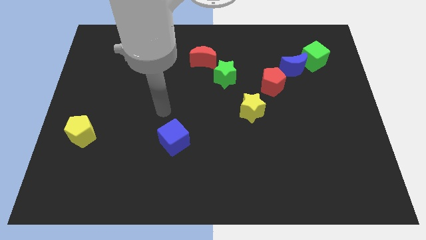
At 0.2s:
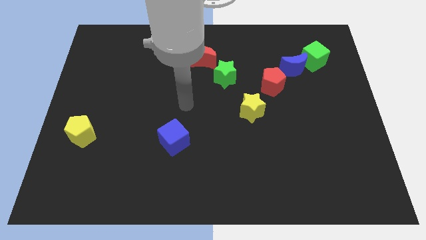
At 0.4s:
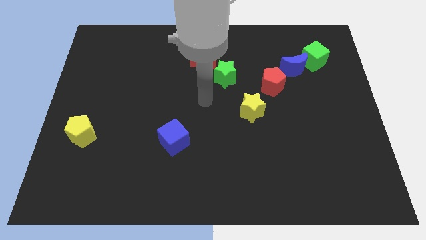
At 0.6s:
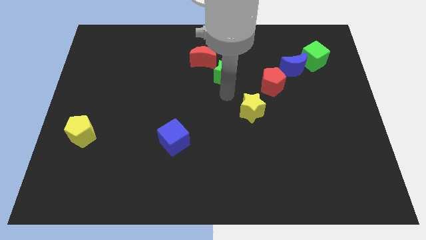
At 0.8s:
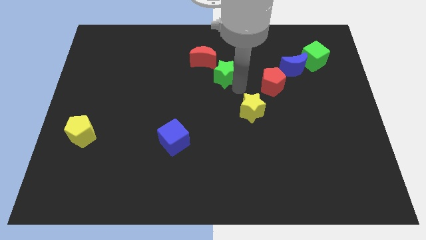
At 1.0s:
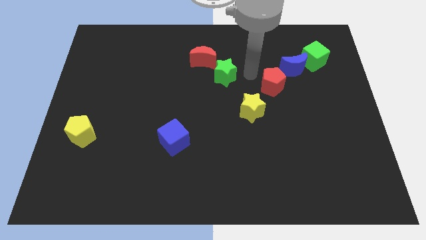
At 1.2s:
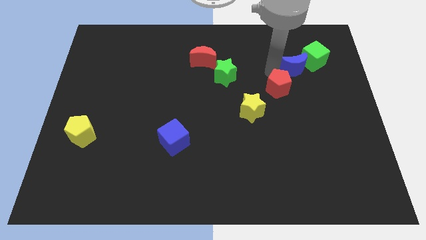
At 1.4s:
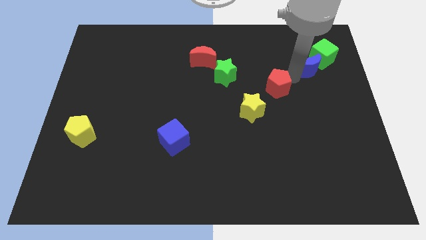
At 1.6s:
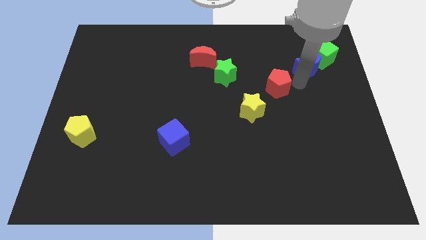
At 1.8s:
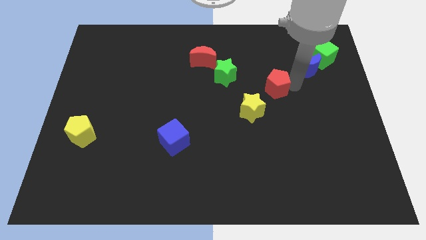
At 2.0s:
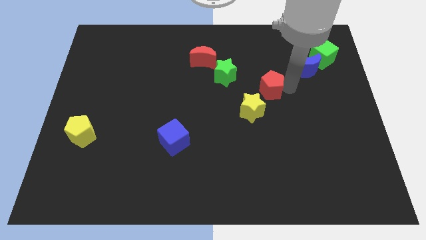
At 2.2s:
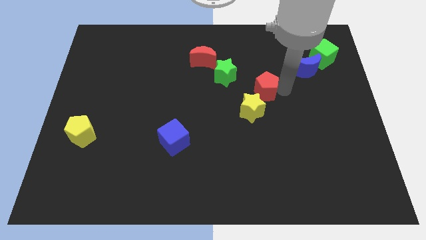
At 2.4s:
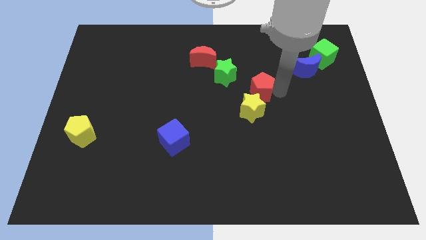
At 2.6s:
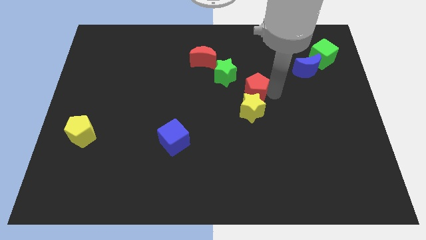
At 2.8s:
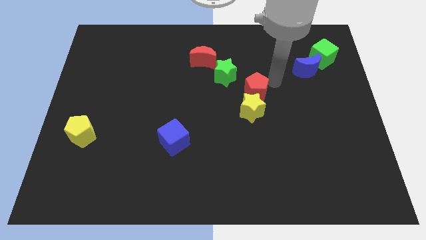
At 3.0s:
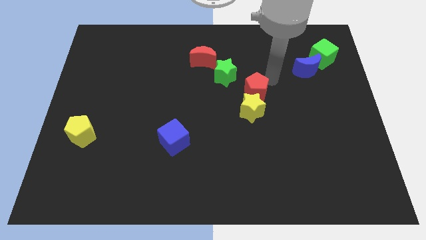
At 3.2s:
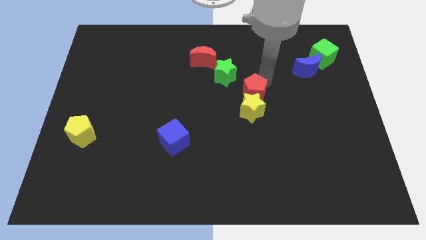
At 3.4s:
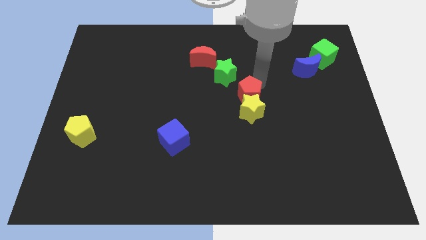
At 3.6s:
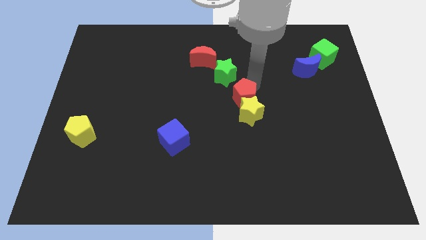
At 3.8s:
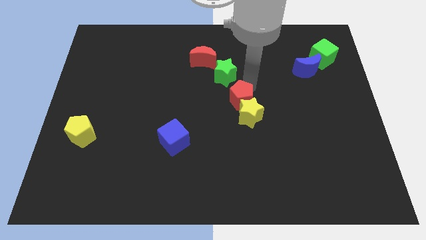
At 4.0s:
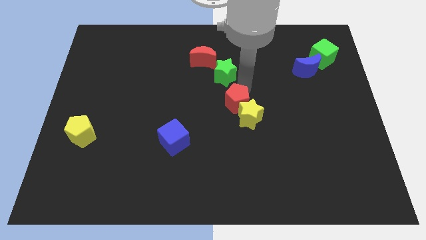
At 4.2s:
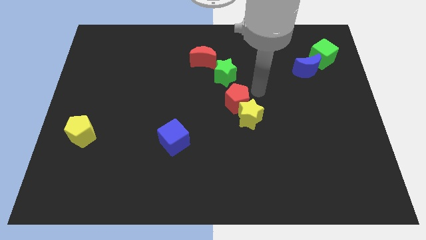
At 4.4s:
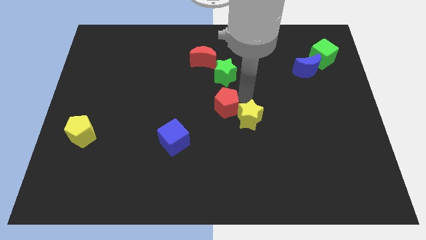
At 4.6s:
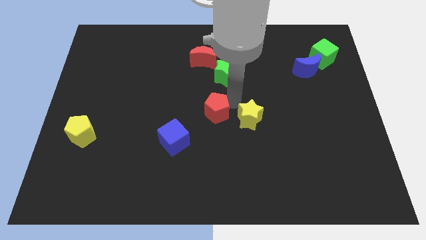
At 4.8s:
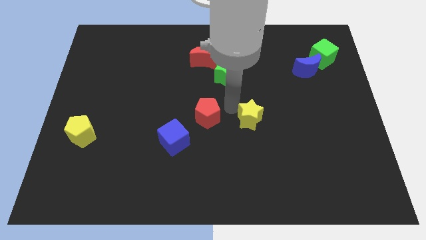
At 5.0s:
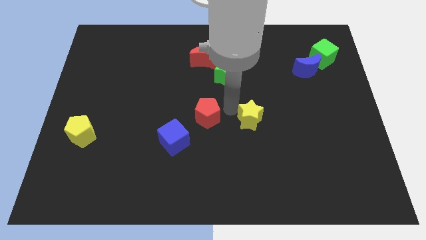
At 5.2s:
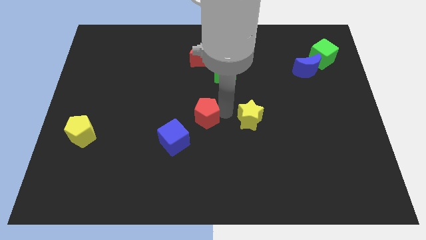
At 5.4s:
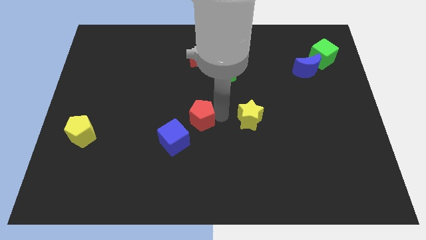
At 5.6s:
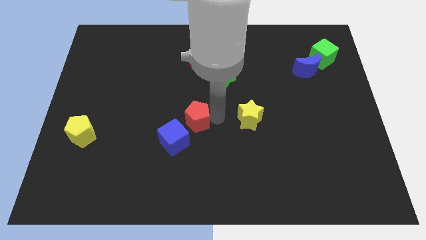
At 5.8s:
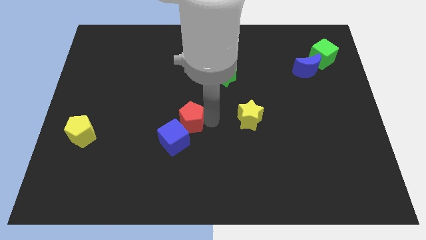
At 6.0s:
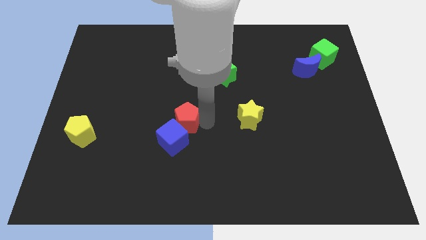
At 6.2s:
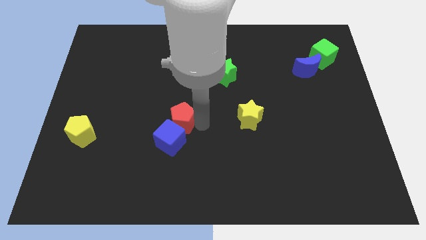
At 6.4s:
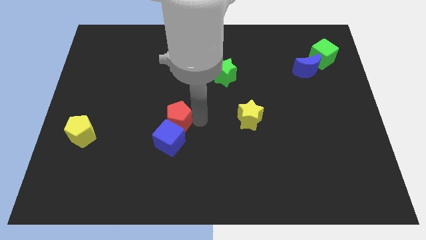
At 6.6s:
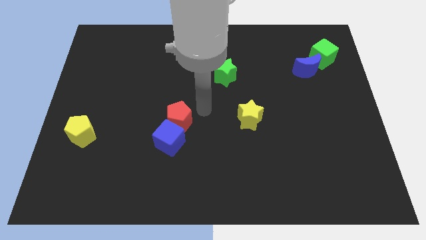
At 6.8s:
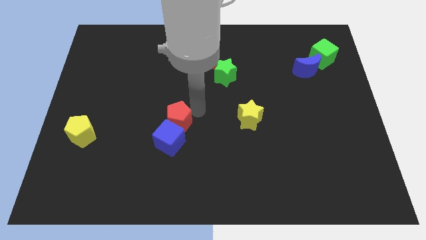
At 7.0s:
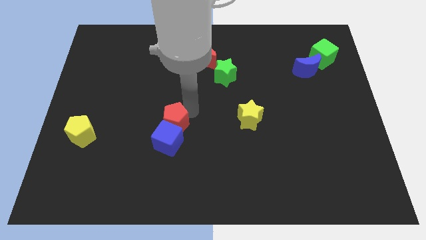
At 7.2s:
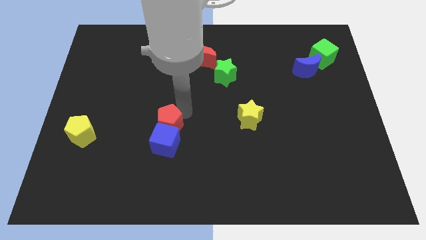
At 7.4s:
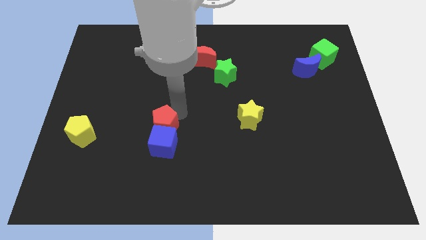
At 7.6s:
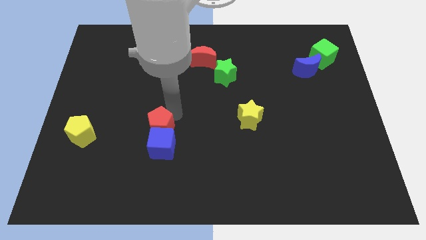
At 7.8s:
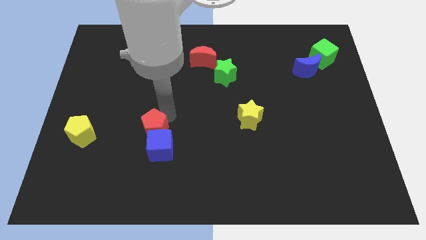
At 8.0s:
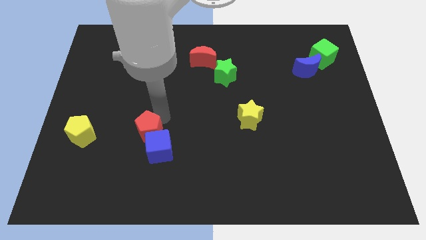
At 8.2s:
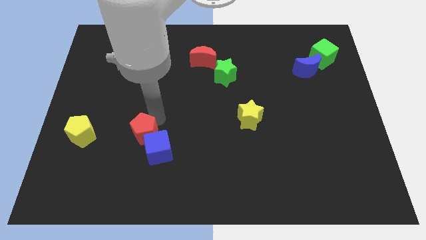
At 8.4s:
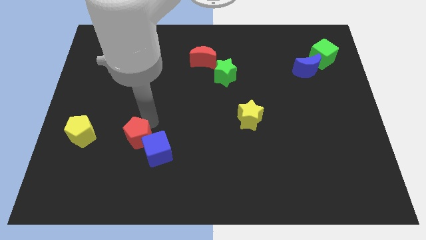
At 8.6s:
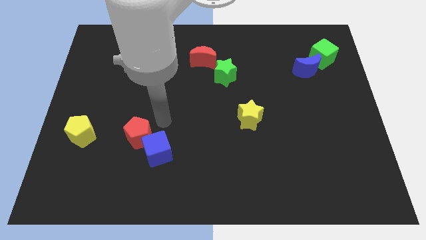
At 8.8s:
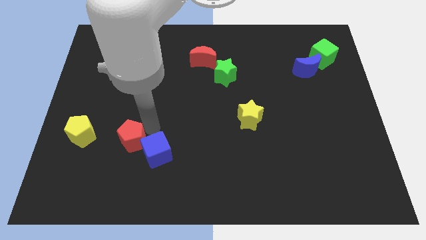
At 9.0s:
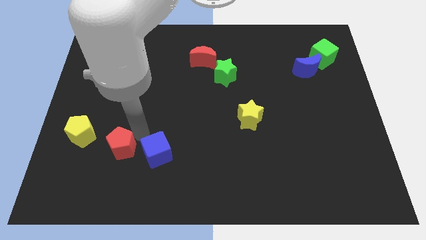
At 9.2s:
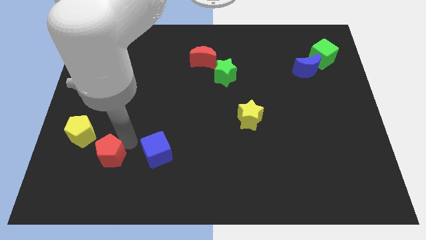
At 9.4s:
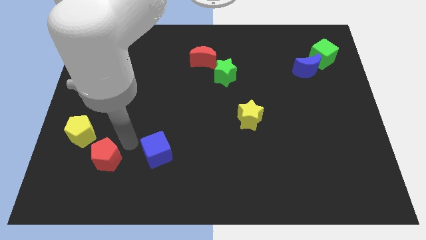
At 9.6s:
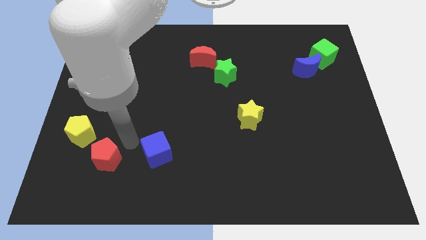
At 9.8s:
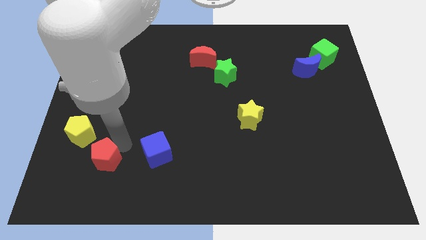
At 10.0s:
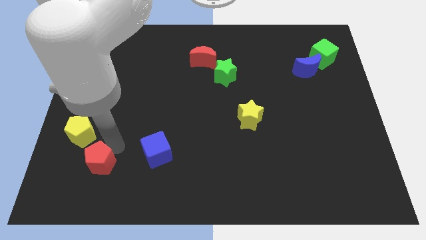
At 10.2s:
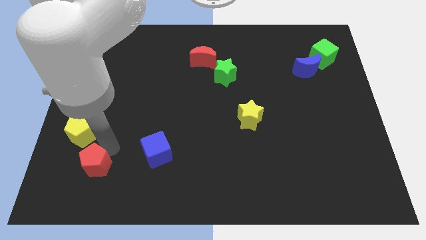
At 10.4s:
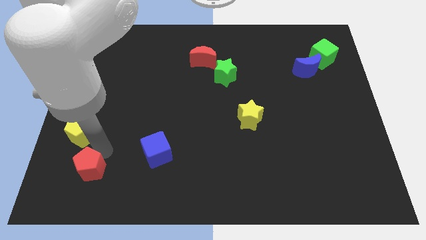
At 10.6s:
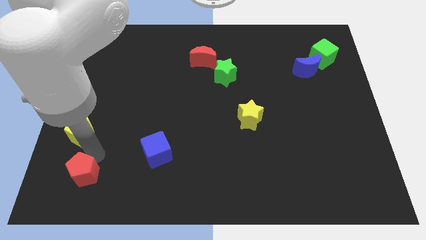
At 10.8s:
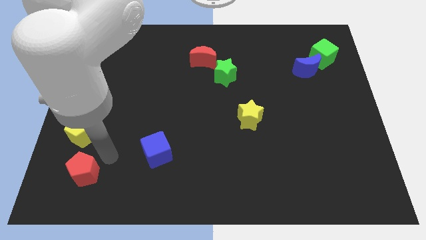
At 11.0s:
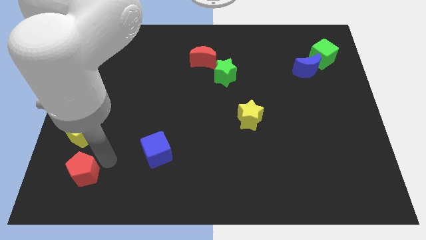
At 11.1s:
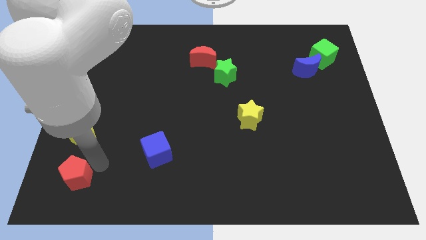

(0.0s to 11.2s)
slide the red pentagon to the bottom left

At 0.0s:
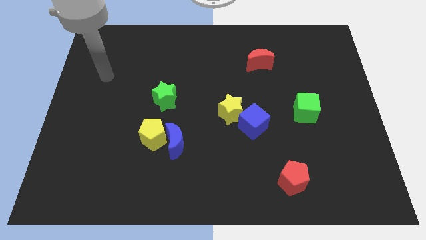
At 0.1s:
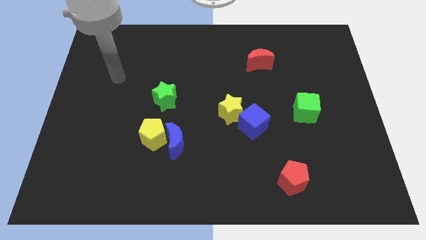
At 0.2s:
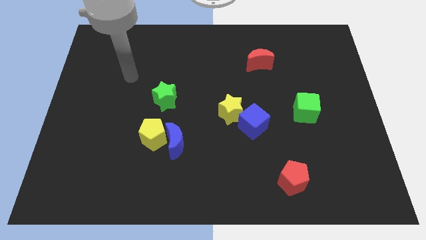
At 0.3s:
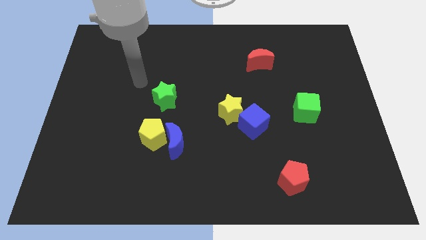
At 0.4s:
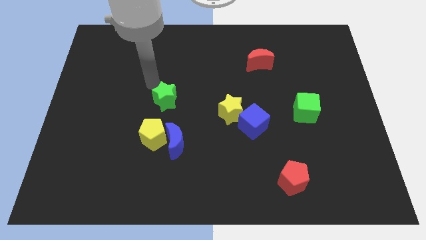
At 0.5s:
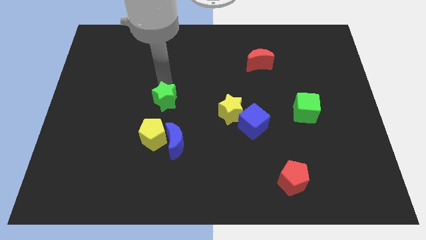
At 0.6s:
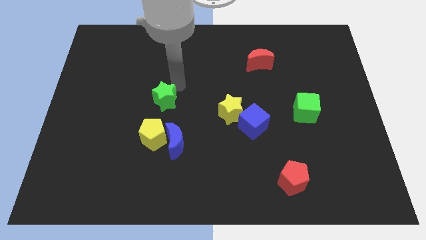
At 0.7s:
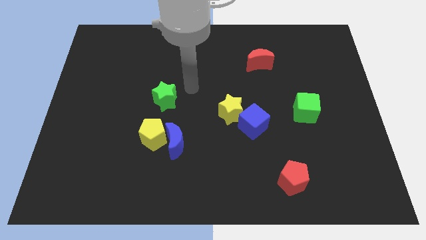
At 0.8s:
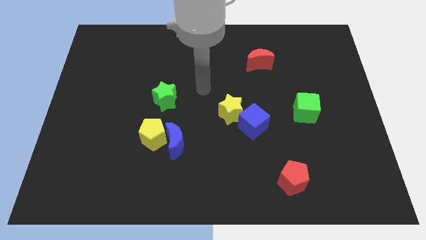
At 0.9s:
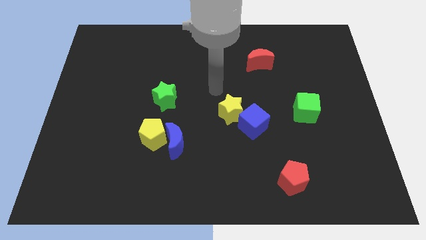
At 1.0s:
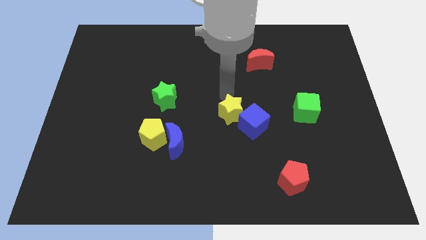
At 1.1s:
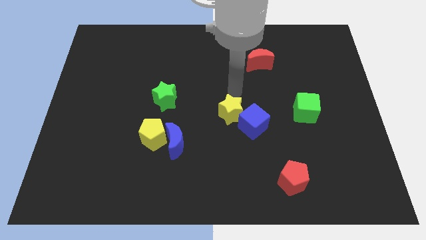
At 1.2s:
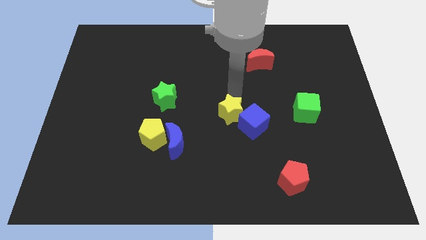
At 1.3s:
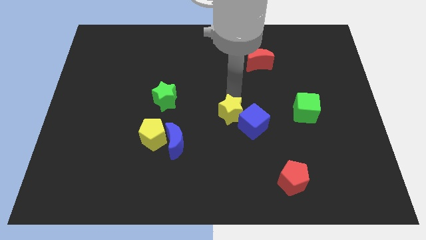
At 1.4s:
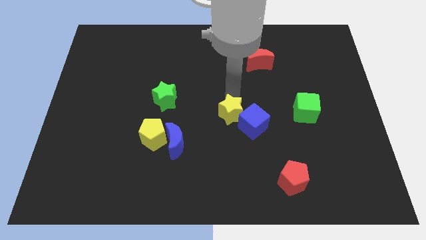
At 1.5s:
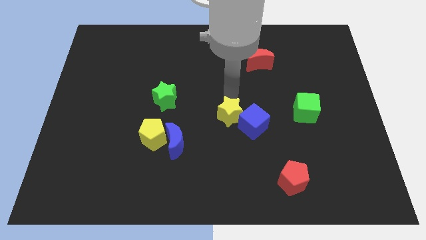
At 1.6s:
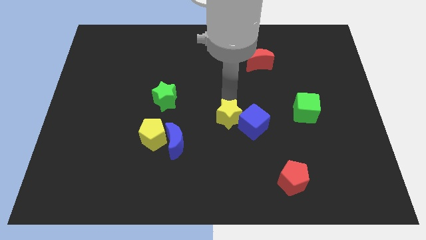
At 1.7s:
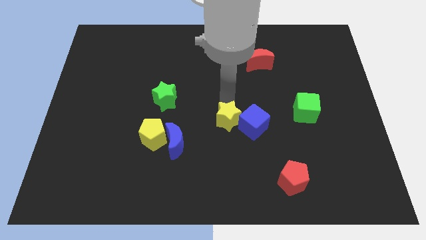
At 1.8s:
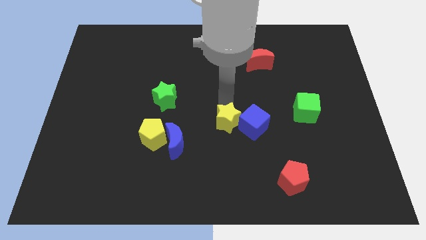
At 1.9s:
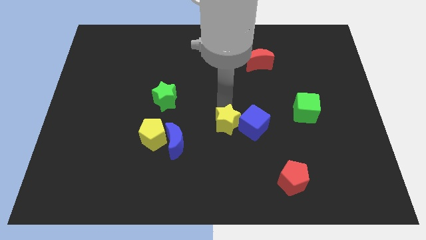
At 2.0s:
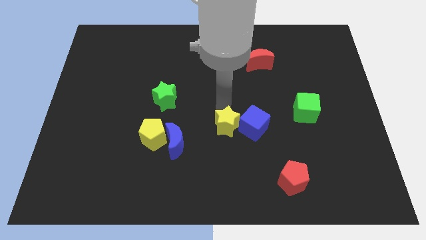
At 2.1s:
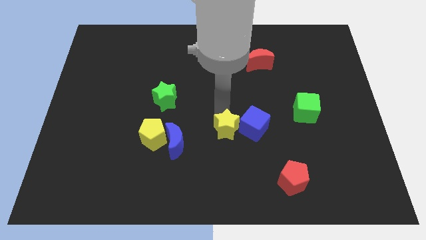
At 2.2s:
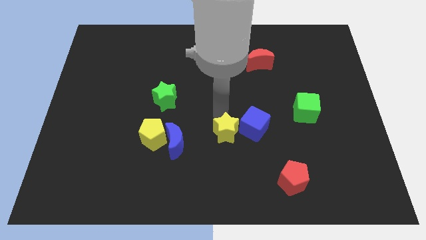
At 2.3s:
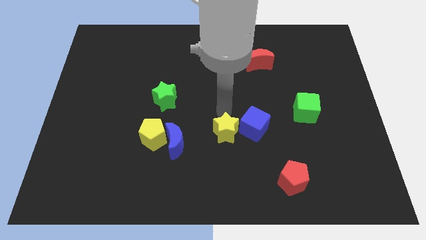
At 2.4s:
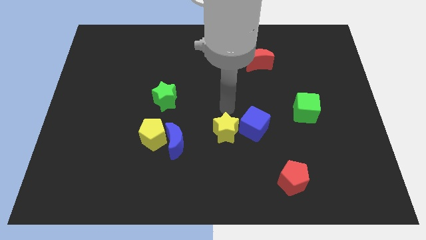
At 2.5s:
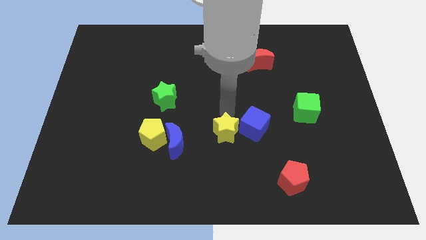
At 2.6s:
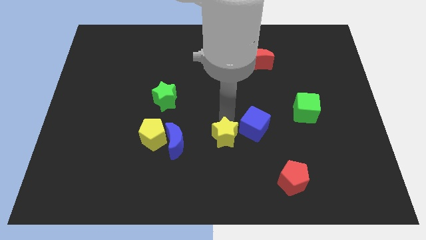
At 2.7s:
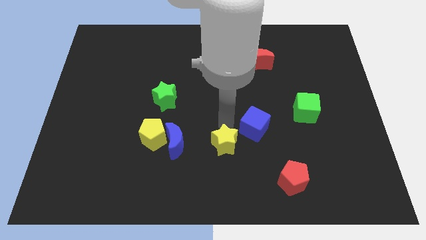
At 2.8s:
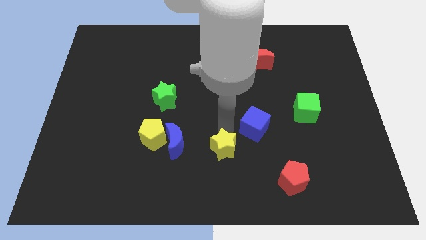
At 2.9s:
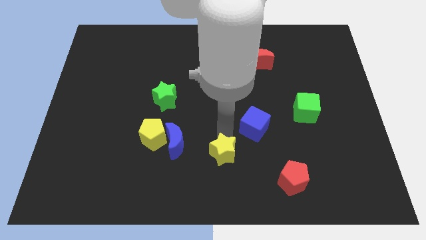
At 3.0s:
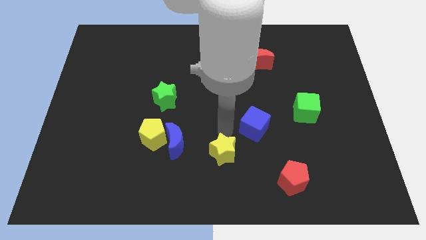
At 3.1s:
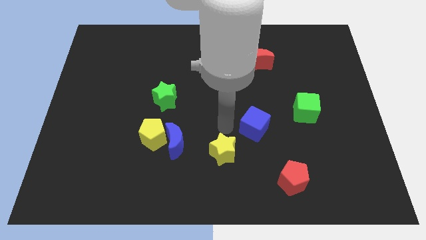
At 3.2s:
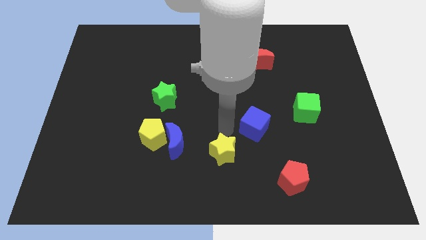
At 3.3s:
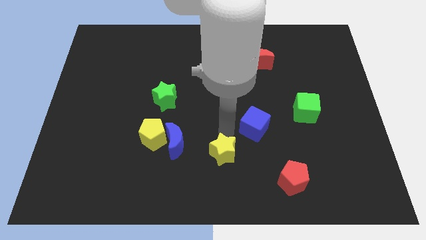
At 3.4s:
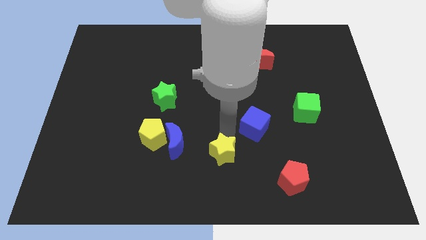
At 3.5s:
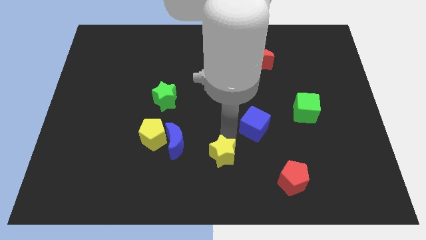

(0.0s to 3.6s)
slide the yellow star to the bottom
